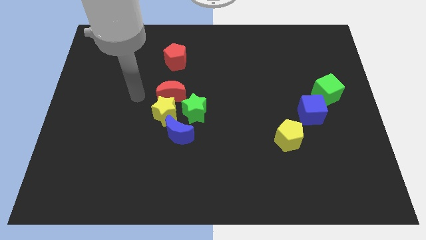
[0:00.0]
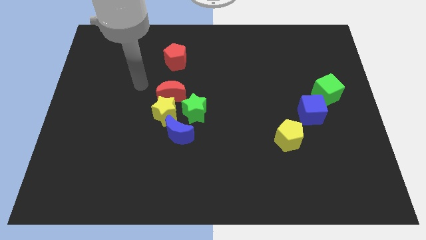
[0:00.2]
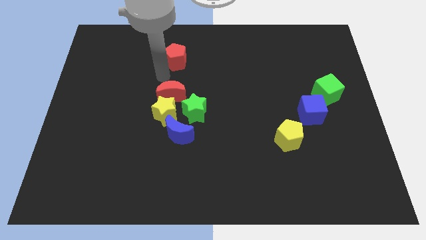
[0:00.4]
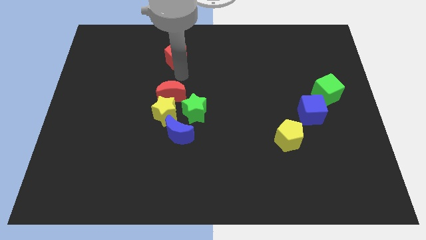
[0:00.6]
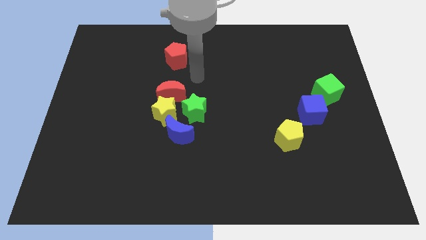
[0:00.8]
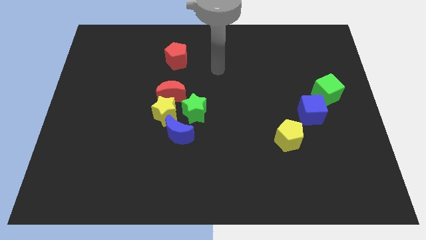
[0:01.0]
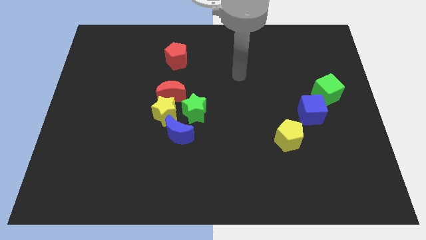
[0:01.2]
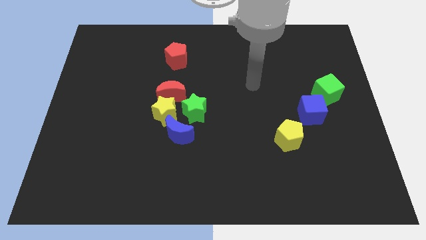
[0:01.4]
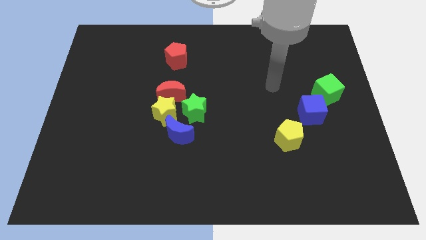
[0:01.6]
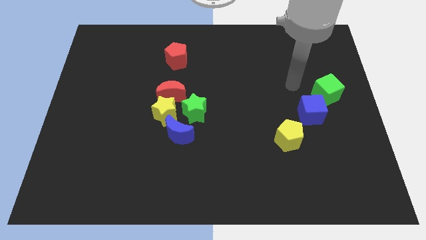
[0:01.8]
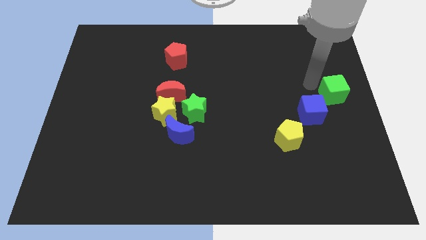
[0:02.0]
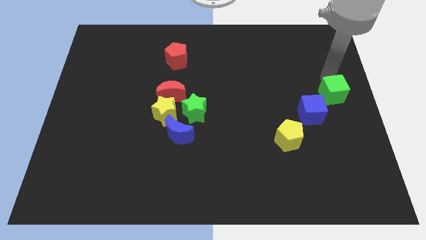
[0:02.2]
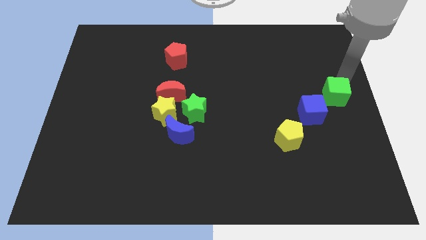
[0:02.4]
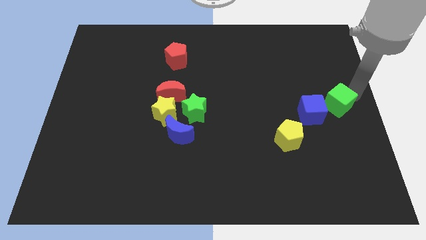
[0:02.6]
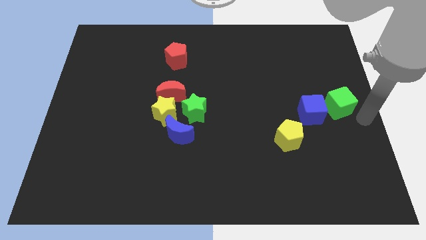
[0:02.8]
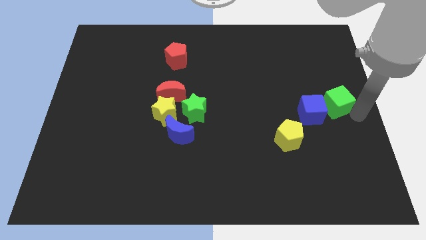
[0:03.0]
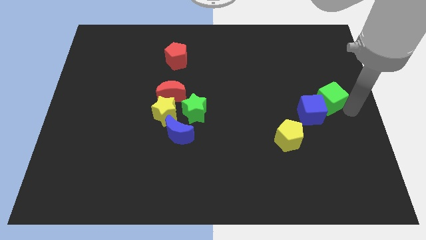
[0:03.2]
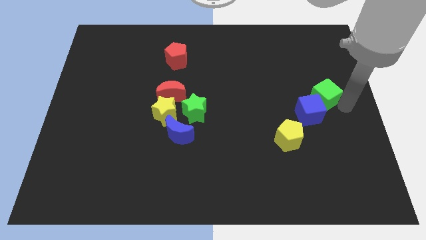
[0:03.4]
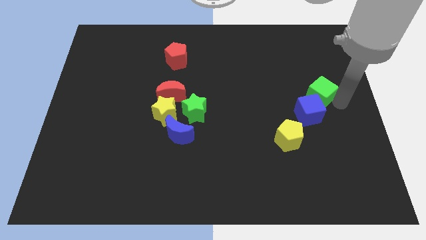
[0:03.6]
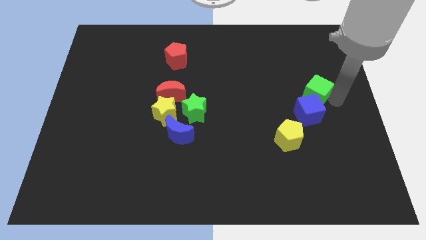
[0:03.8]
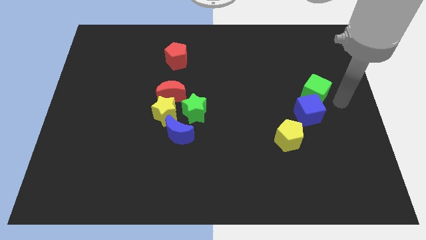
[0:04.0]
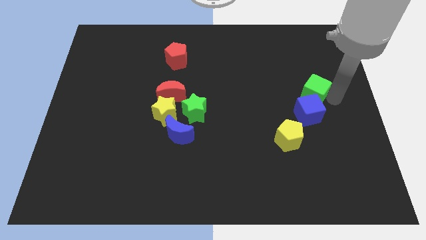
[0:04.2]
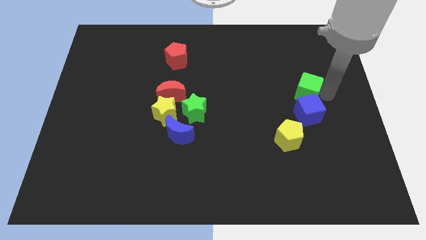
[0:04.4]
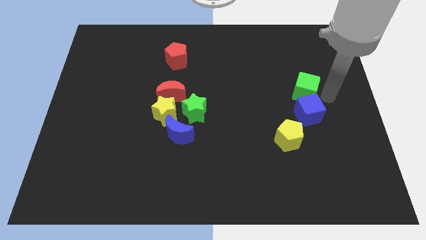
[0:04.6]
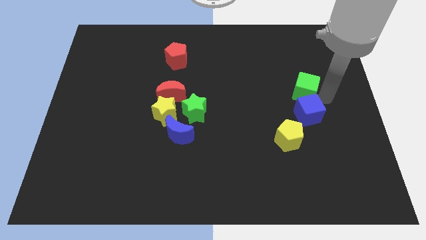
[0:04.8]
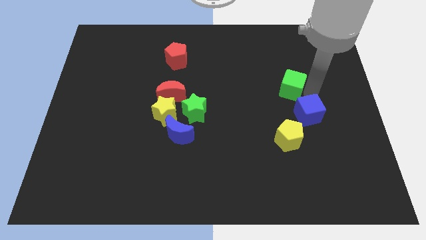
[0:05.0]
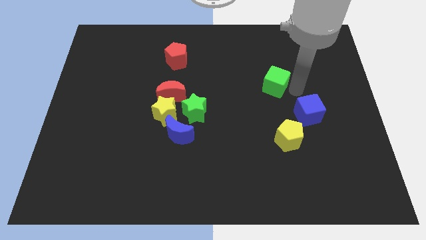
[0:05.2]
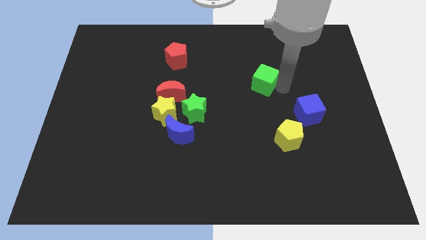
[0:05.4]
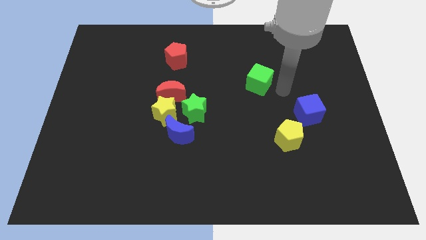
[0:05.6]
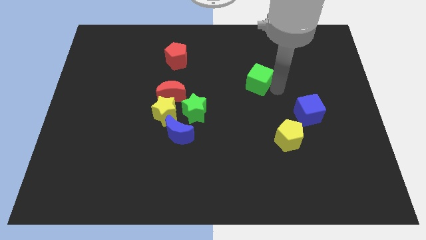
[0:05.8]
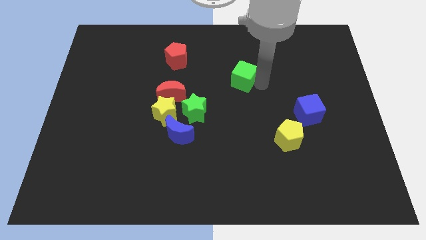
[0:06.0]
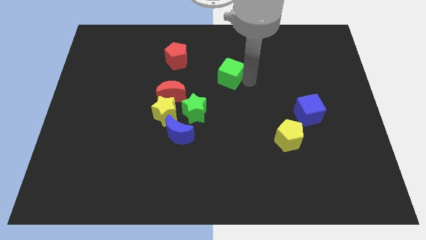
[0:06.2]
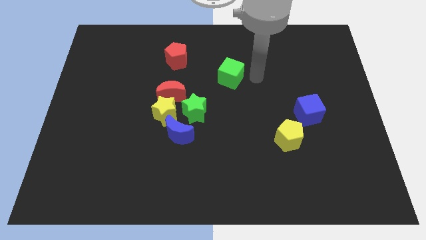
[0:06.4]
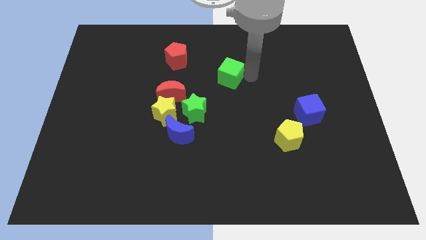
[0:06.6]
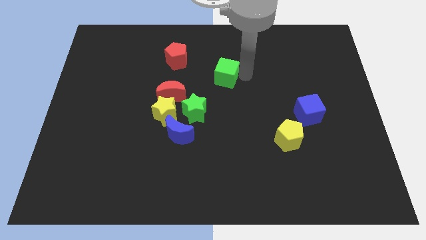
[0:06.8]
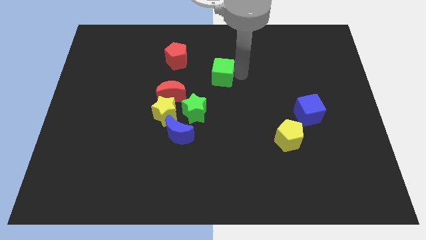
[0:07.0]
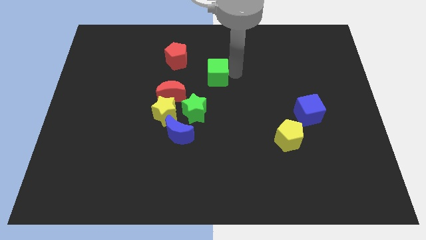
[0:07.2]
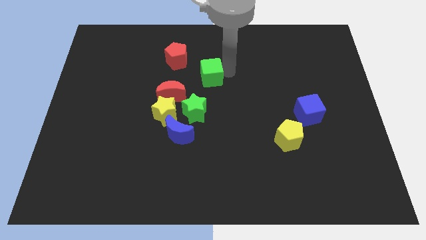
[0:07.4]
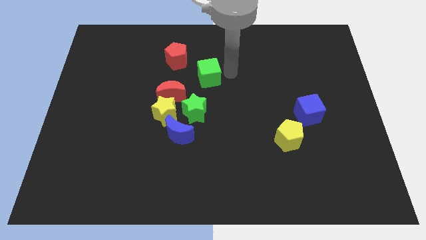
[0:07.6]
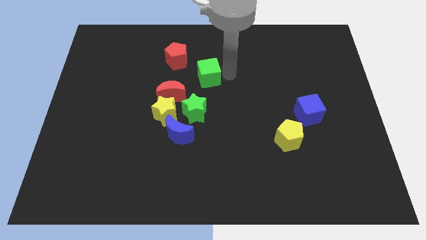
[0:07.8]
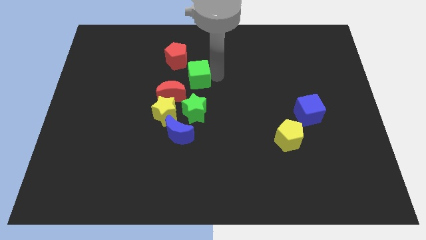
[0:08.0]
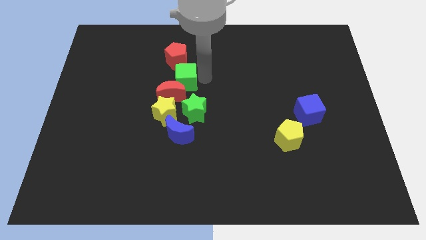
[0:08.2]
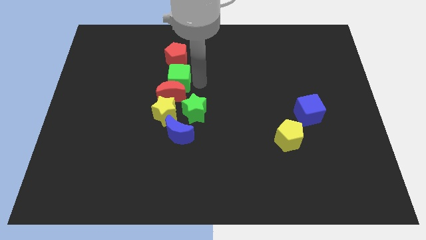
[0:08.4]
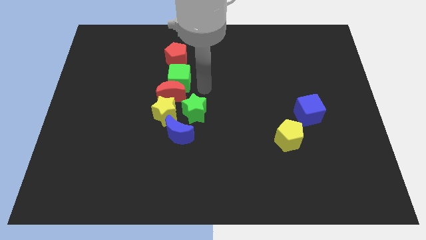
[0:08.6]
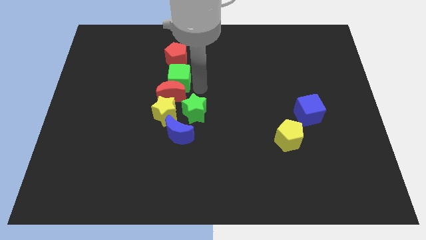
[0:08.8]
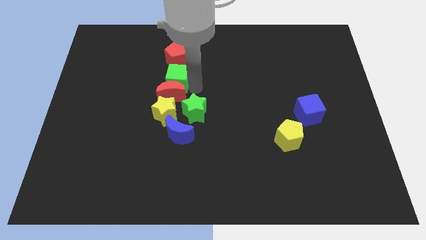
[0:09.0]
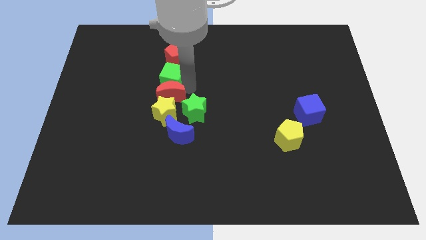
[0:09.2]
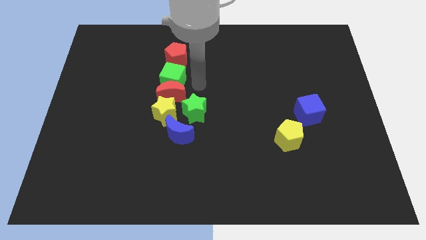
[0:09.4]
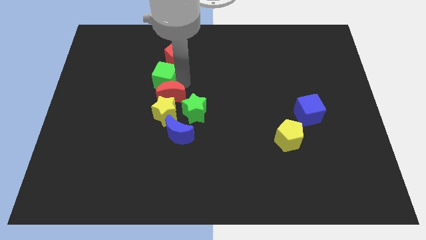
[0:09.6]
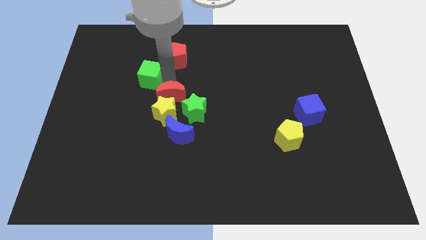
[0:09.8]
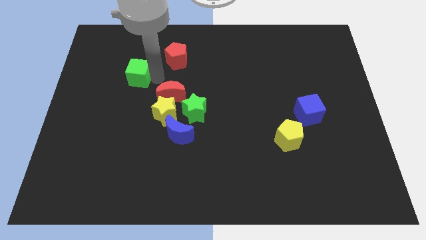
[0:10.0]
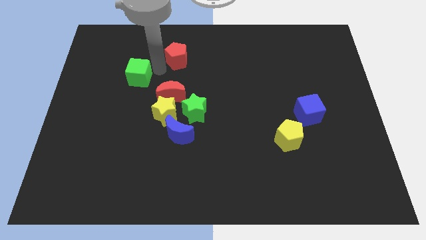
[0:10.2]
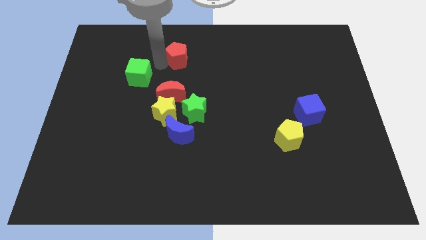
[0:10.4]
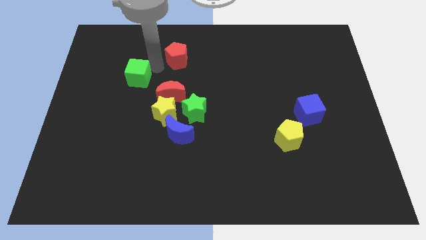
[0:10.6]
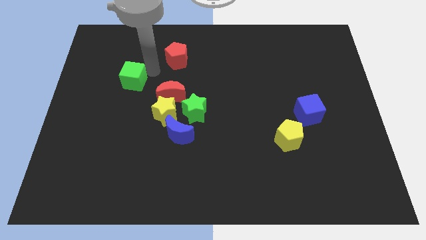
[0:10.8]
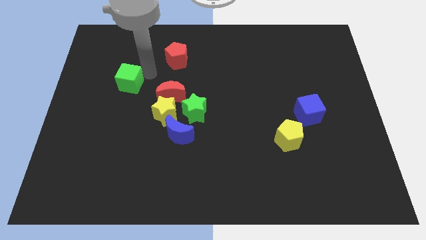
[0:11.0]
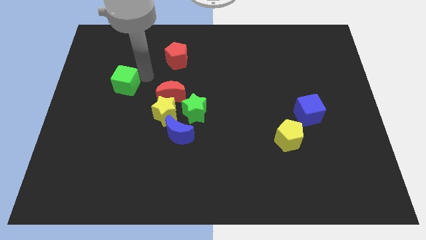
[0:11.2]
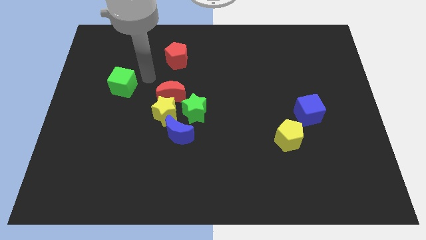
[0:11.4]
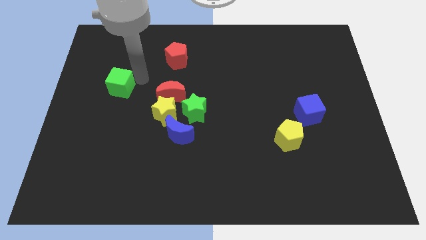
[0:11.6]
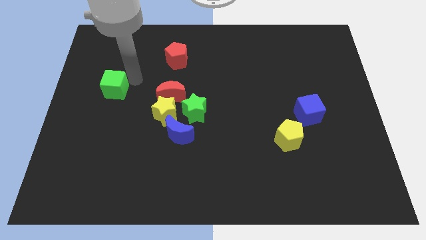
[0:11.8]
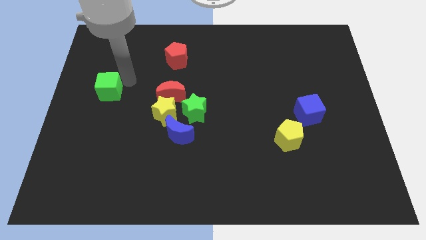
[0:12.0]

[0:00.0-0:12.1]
put the green cube to the left side of the board

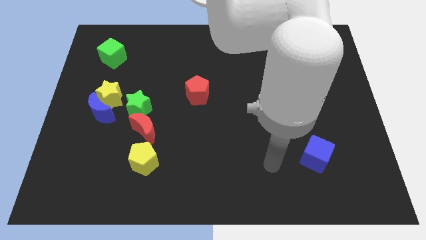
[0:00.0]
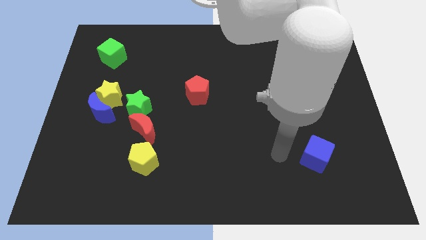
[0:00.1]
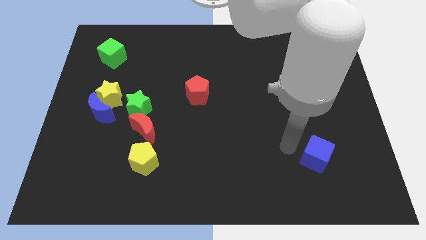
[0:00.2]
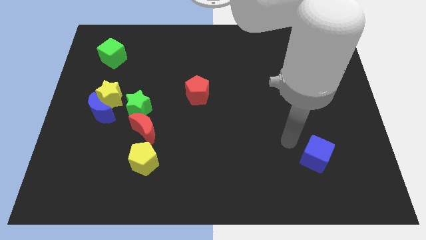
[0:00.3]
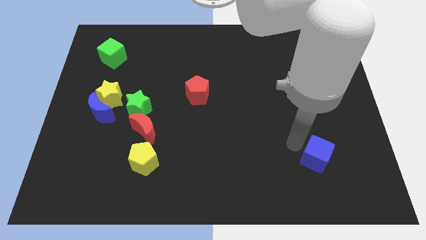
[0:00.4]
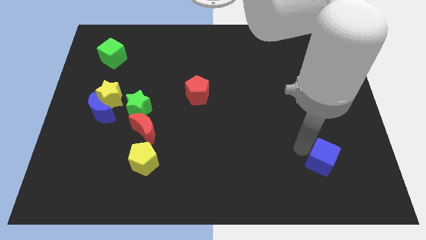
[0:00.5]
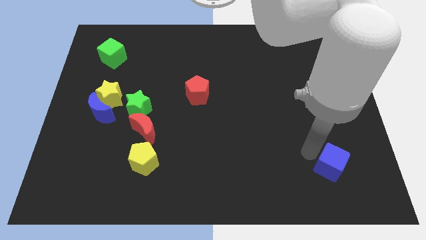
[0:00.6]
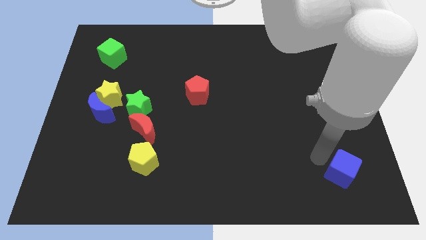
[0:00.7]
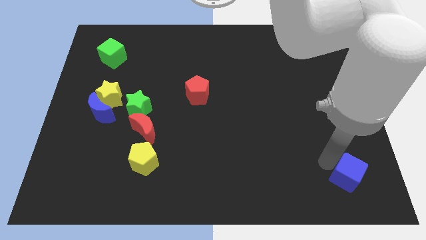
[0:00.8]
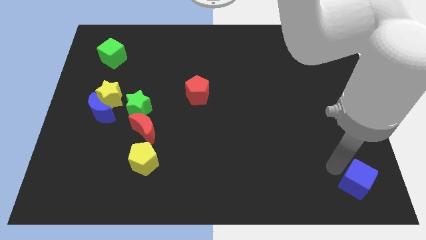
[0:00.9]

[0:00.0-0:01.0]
move the blue cube to the lower right corner
